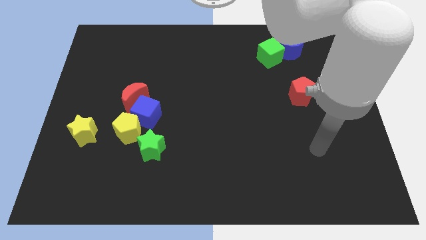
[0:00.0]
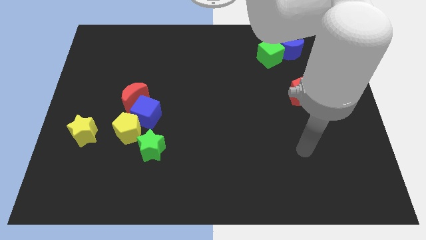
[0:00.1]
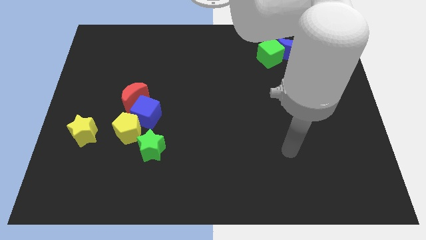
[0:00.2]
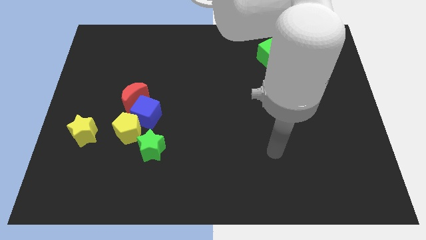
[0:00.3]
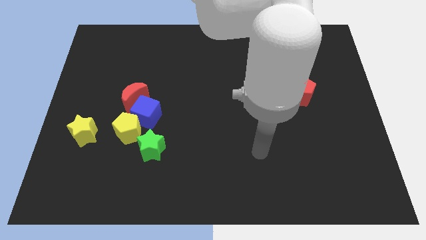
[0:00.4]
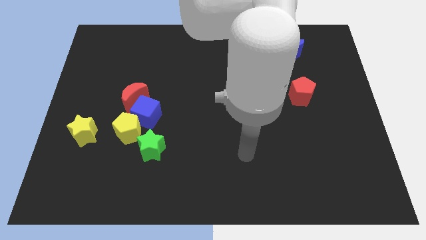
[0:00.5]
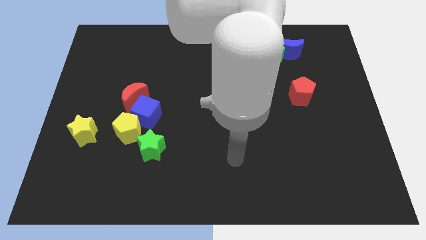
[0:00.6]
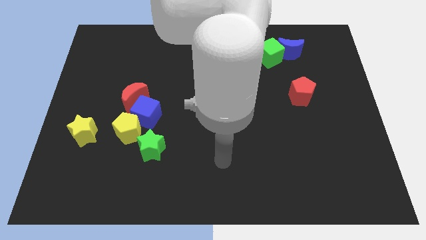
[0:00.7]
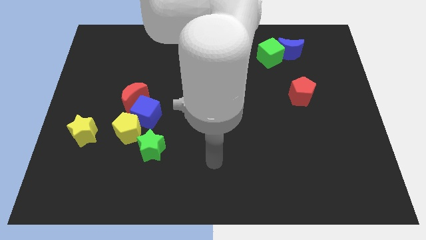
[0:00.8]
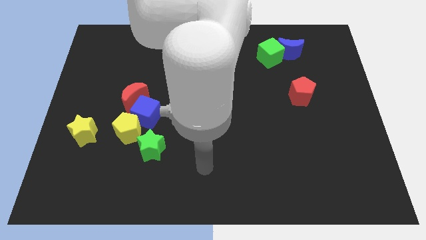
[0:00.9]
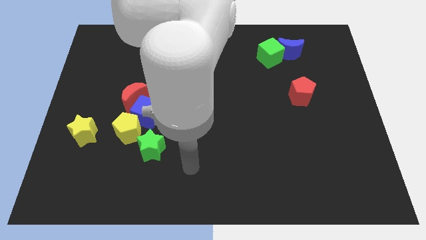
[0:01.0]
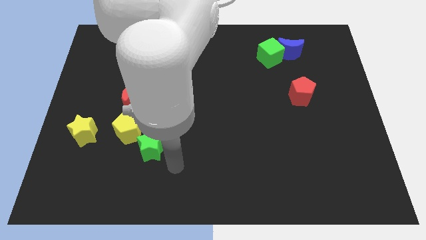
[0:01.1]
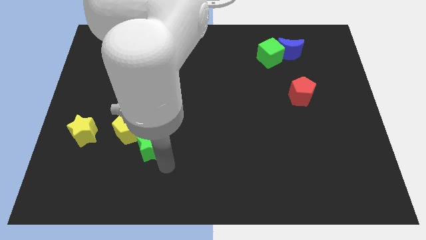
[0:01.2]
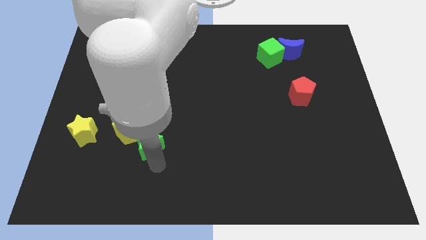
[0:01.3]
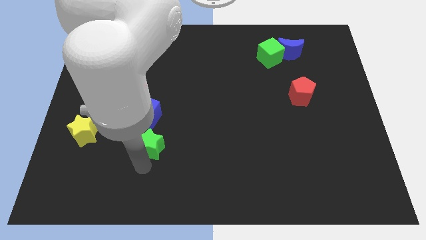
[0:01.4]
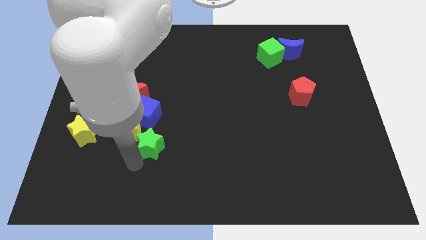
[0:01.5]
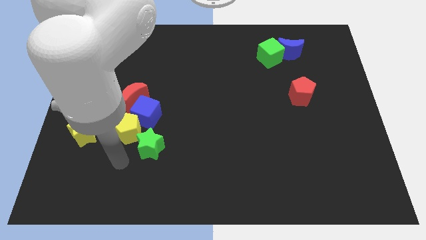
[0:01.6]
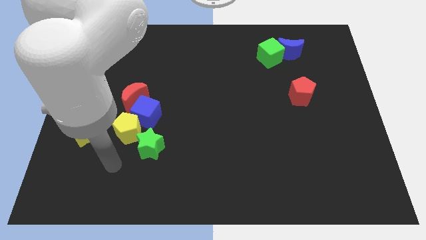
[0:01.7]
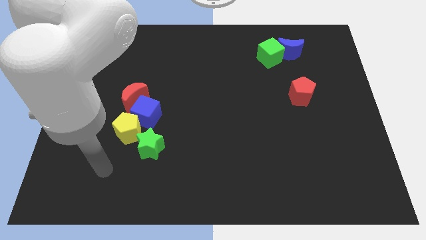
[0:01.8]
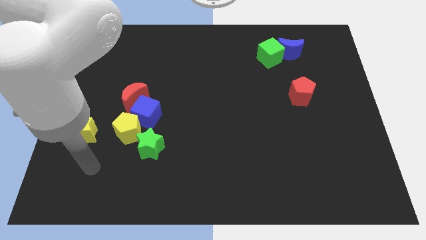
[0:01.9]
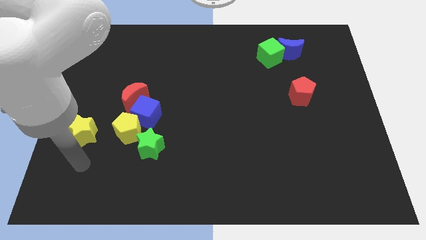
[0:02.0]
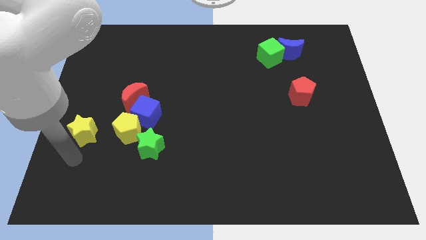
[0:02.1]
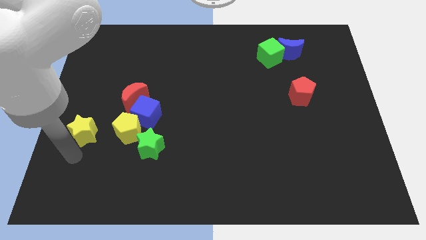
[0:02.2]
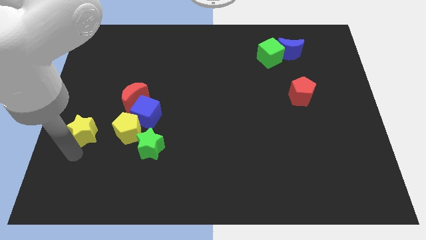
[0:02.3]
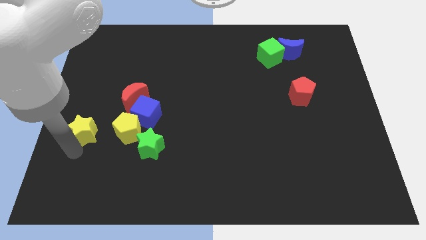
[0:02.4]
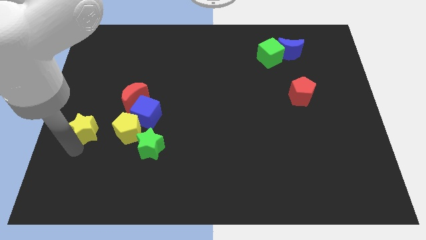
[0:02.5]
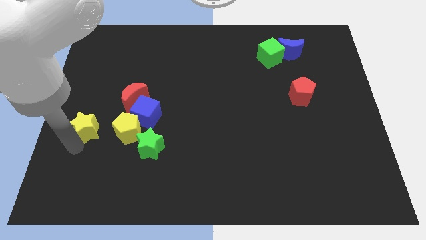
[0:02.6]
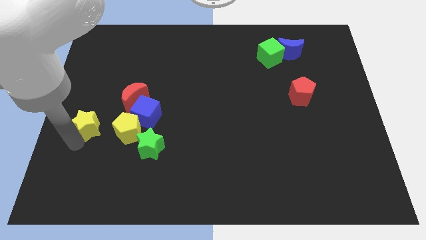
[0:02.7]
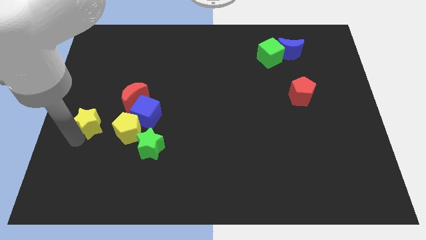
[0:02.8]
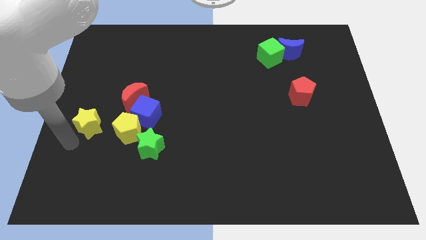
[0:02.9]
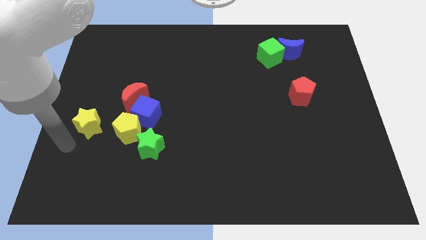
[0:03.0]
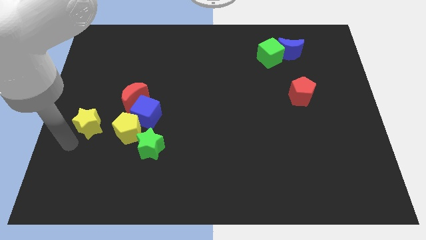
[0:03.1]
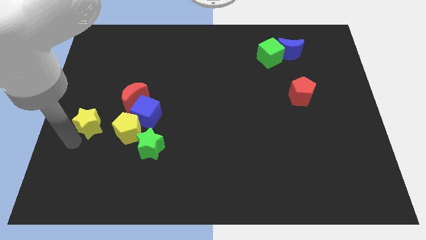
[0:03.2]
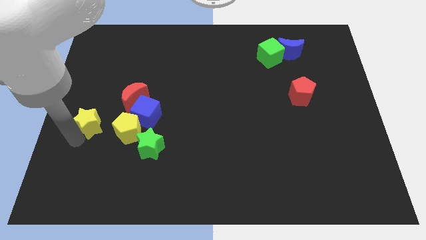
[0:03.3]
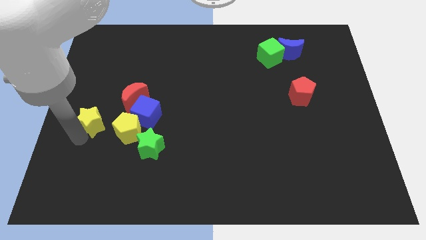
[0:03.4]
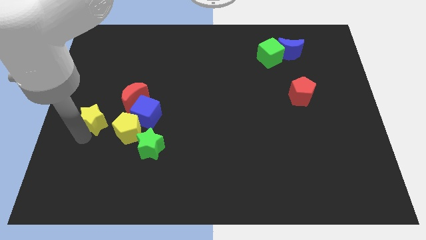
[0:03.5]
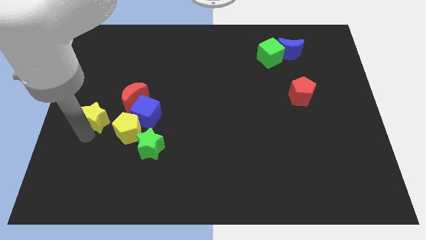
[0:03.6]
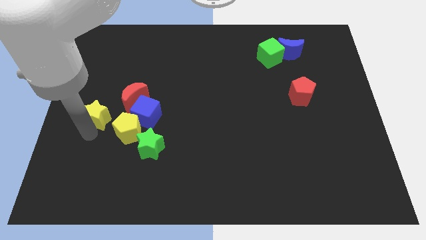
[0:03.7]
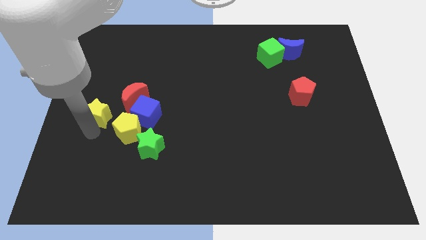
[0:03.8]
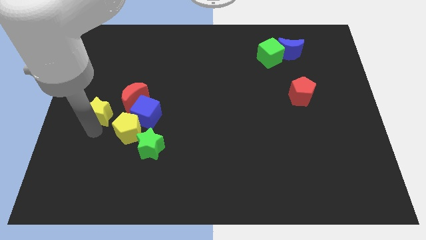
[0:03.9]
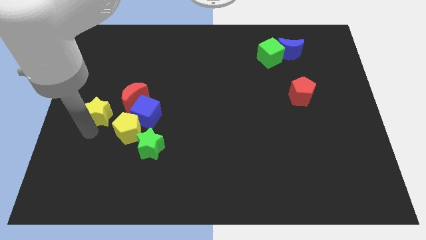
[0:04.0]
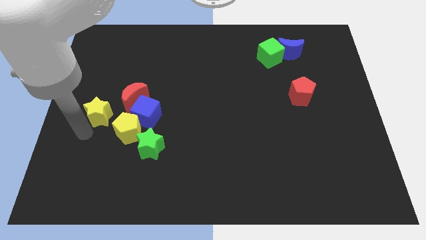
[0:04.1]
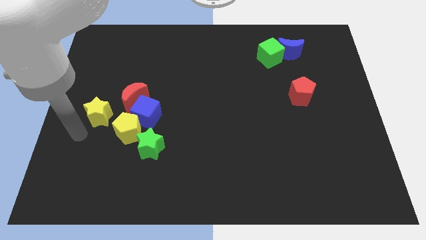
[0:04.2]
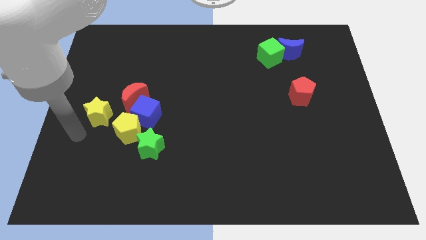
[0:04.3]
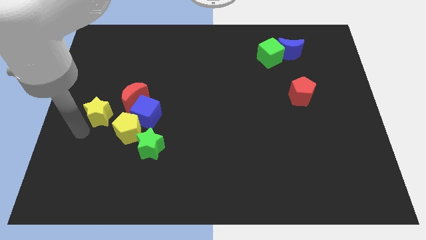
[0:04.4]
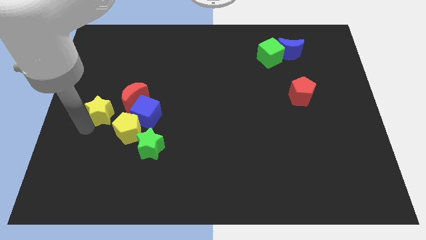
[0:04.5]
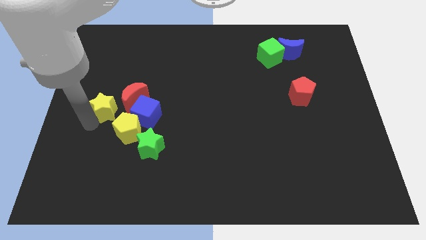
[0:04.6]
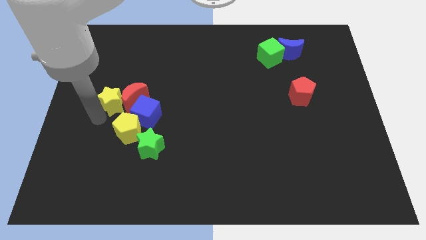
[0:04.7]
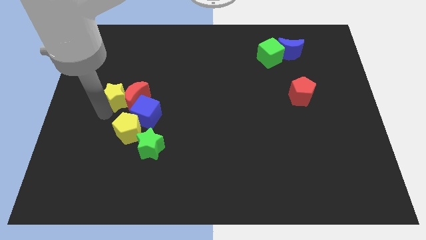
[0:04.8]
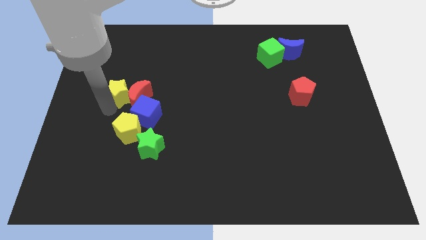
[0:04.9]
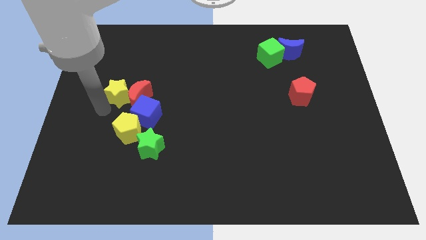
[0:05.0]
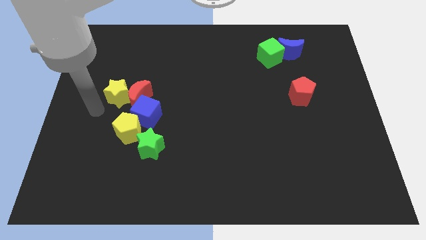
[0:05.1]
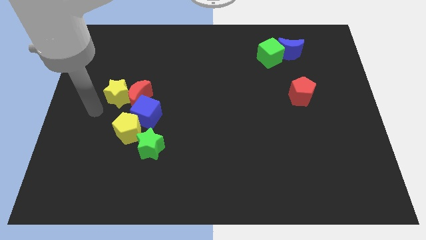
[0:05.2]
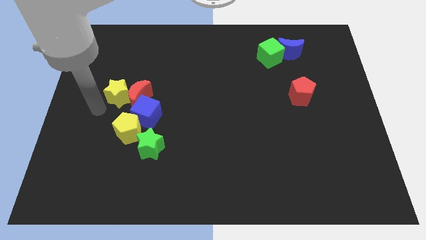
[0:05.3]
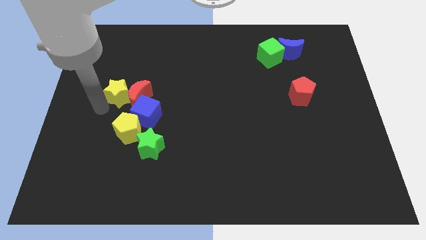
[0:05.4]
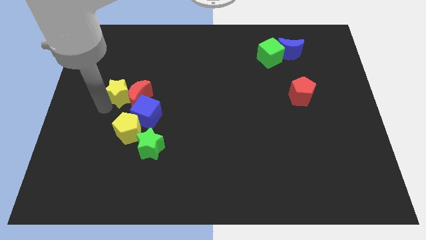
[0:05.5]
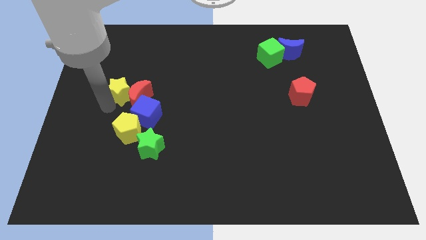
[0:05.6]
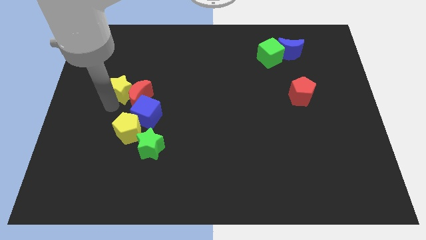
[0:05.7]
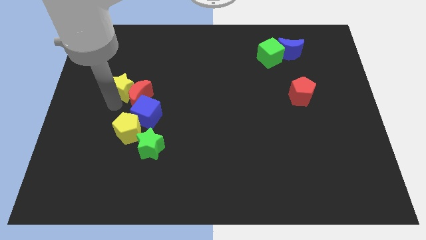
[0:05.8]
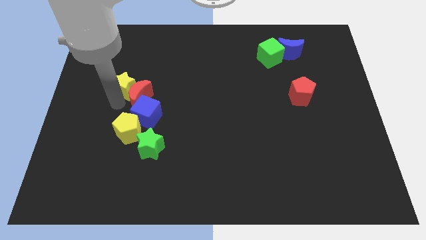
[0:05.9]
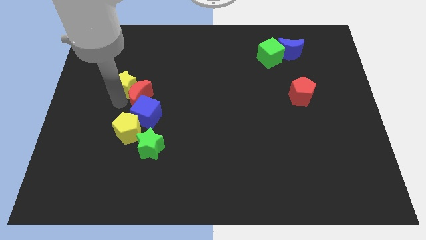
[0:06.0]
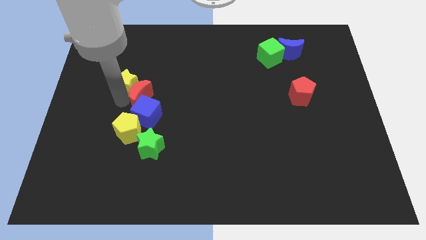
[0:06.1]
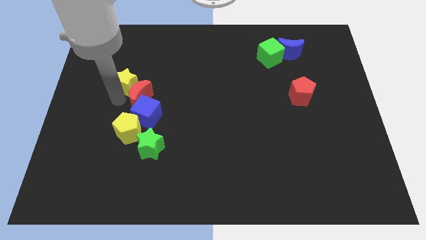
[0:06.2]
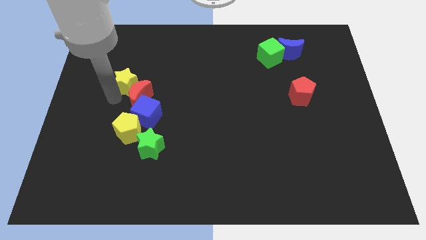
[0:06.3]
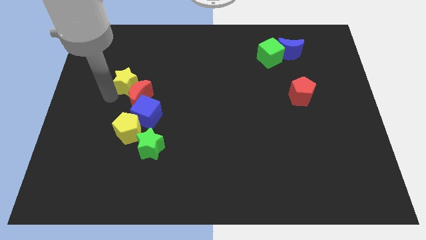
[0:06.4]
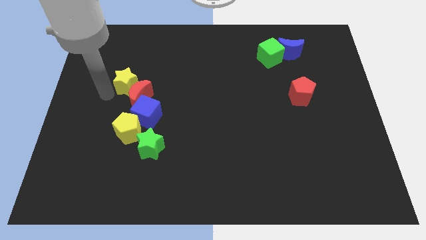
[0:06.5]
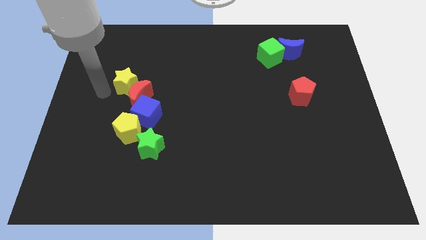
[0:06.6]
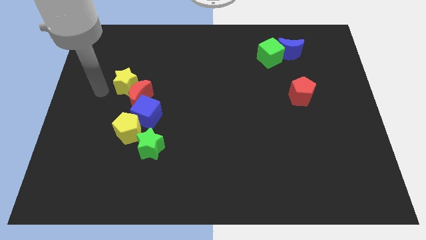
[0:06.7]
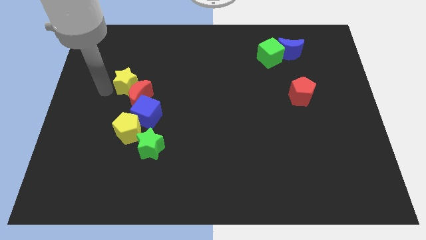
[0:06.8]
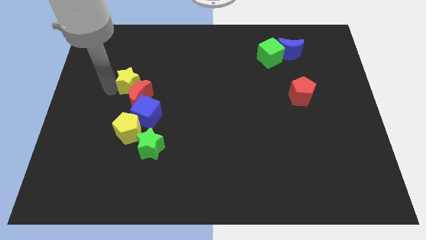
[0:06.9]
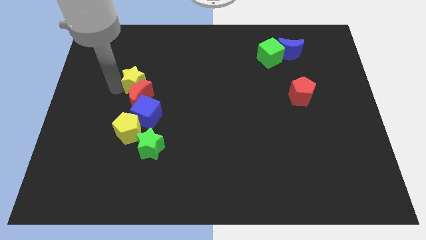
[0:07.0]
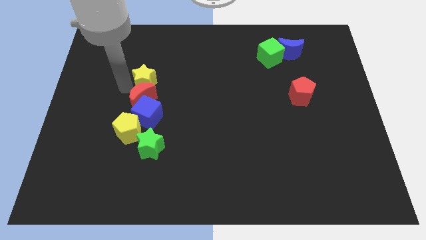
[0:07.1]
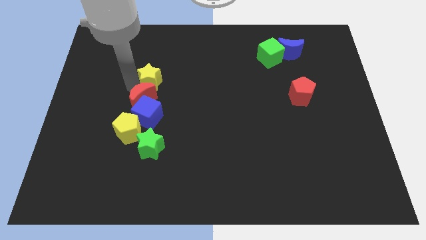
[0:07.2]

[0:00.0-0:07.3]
slide the yellow star up and then right

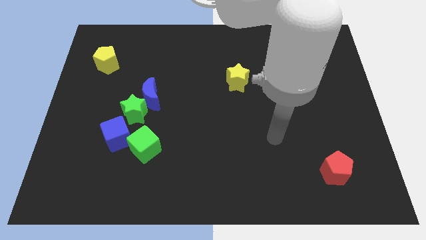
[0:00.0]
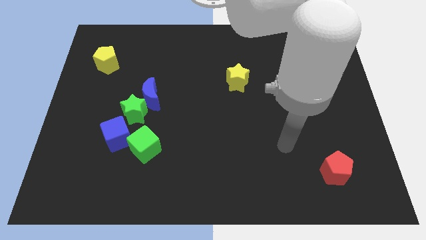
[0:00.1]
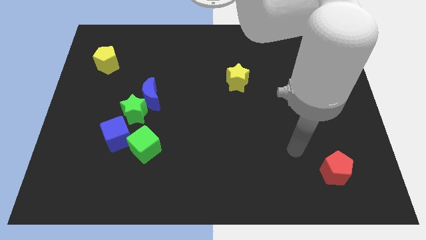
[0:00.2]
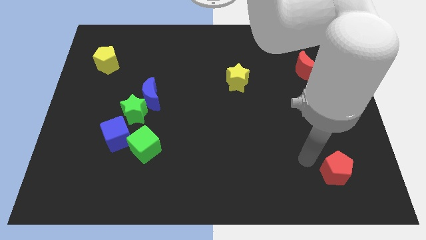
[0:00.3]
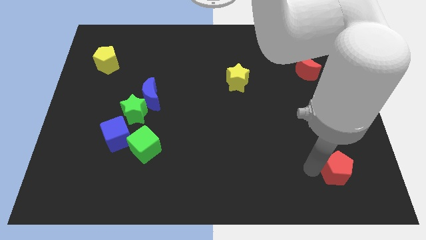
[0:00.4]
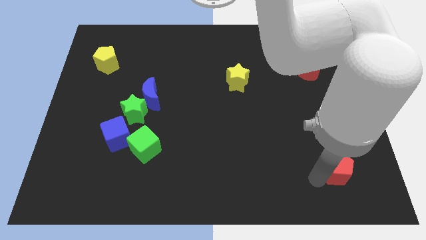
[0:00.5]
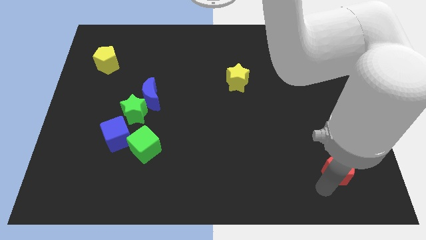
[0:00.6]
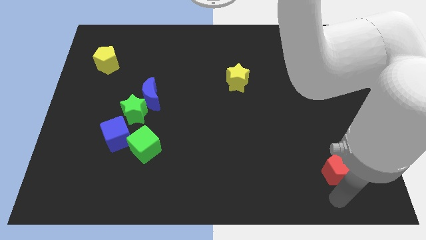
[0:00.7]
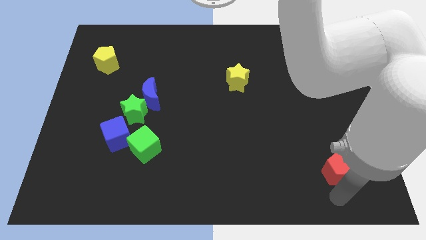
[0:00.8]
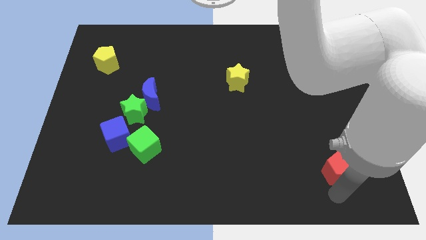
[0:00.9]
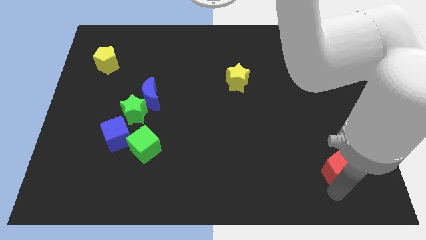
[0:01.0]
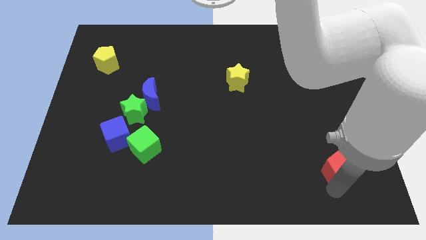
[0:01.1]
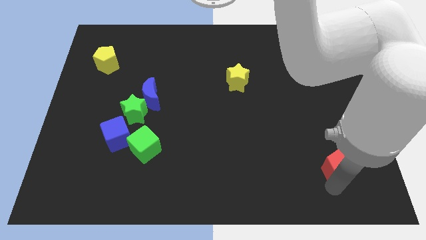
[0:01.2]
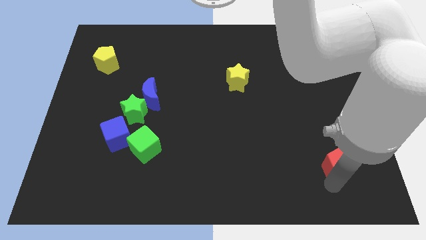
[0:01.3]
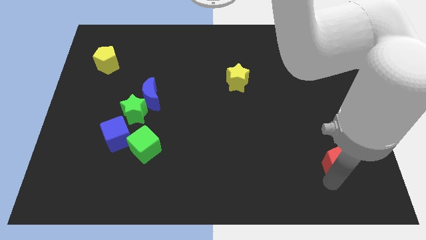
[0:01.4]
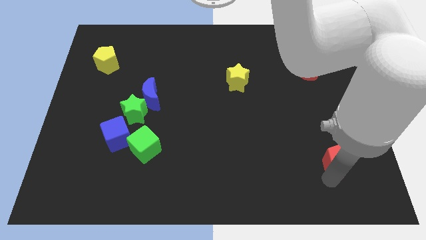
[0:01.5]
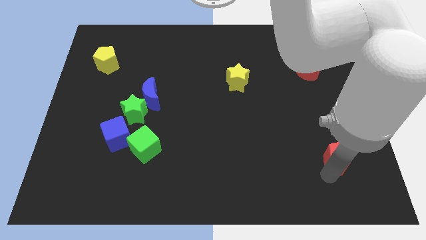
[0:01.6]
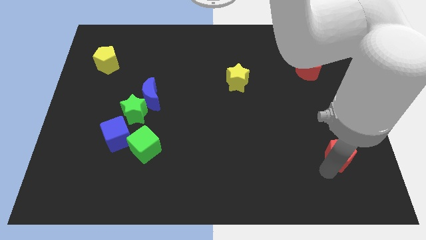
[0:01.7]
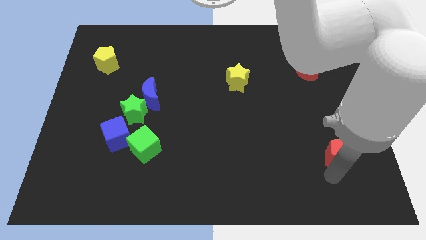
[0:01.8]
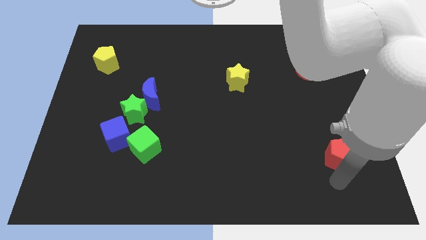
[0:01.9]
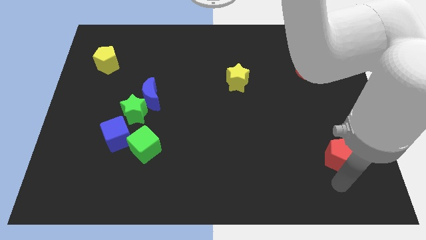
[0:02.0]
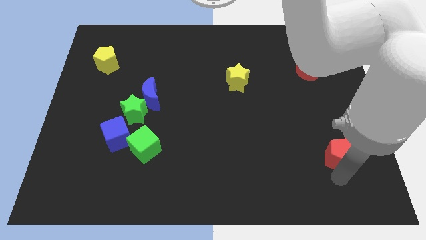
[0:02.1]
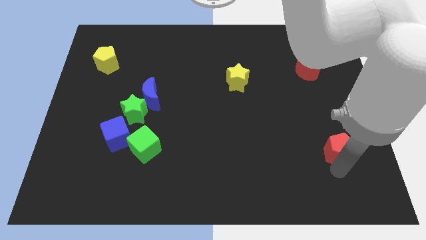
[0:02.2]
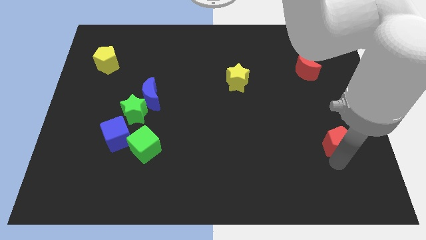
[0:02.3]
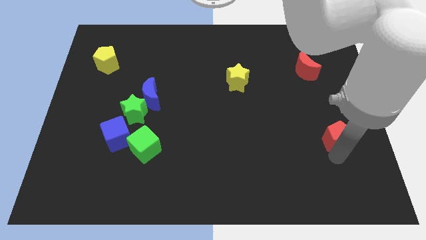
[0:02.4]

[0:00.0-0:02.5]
slightly slide the red pentagon upwards
